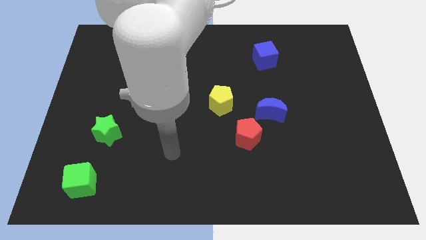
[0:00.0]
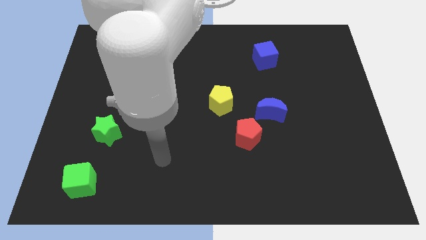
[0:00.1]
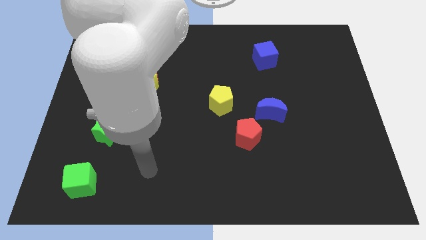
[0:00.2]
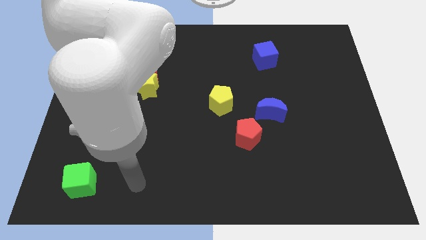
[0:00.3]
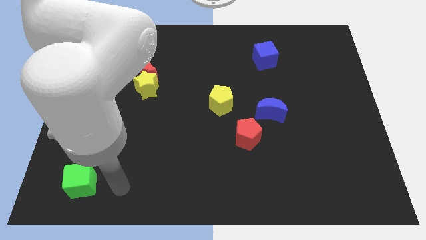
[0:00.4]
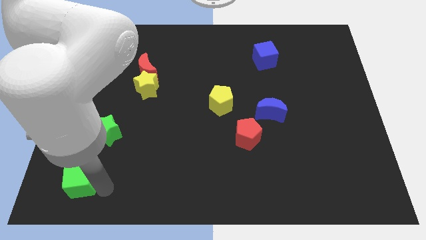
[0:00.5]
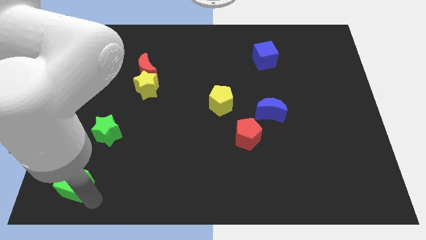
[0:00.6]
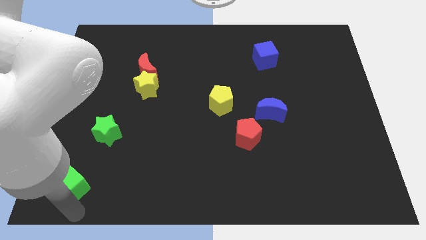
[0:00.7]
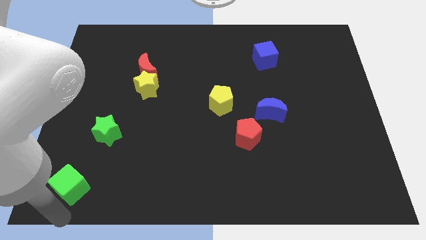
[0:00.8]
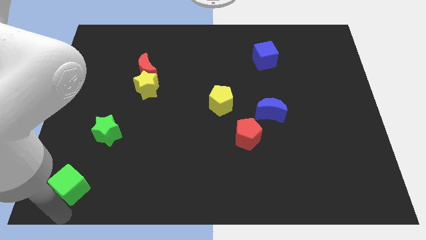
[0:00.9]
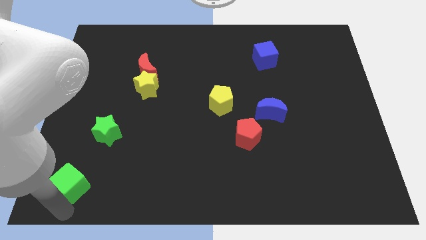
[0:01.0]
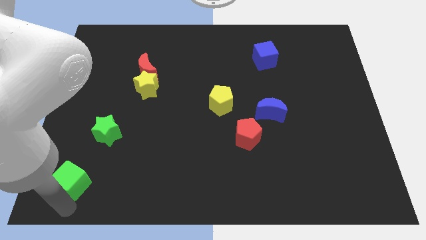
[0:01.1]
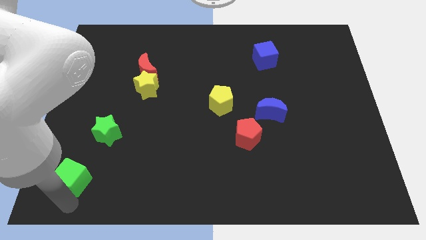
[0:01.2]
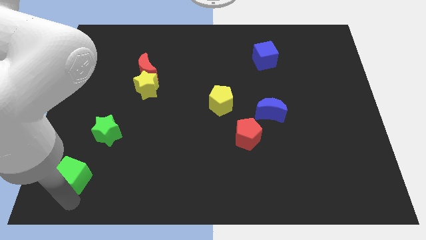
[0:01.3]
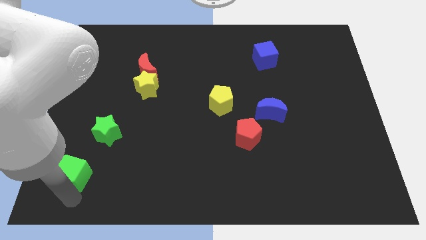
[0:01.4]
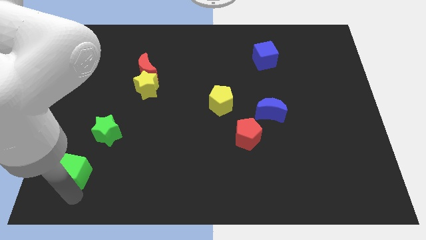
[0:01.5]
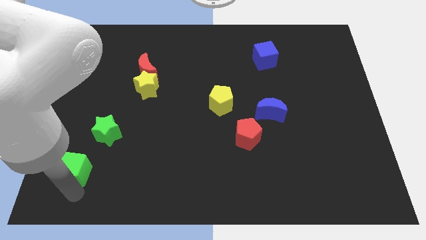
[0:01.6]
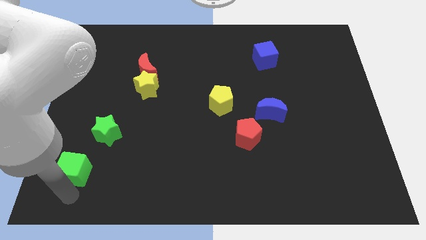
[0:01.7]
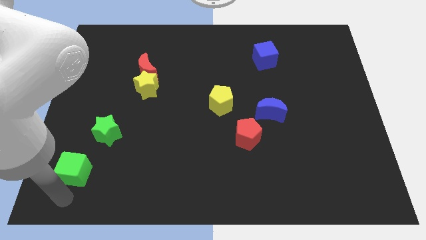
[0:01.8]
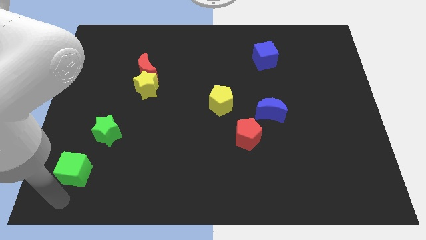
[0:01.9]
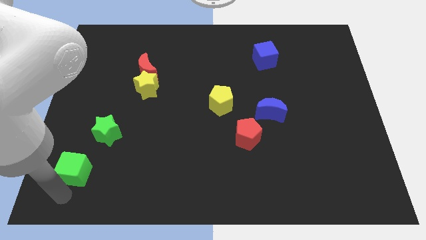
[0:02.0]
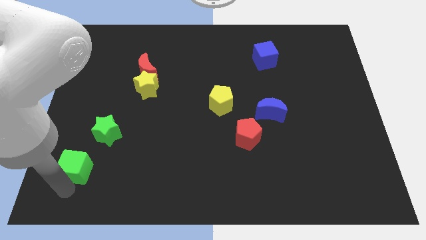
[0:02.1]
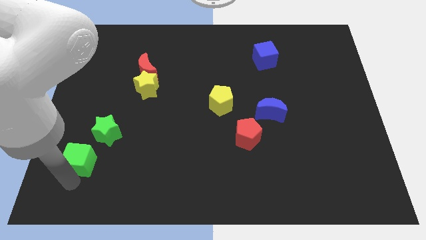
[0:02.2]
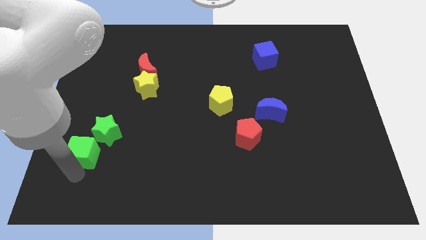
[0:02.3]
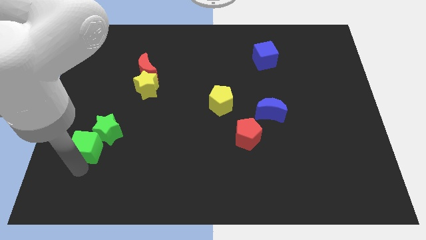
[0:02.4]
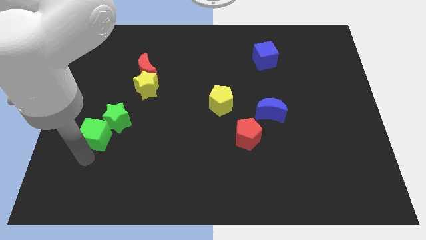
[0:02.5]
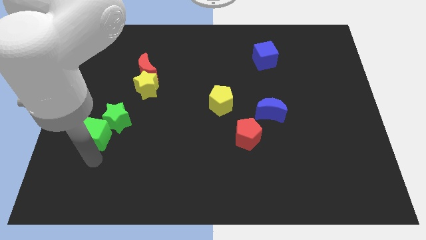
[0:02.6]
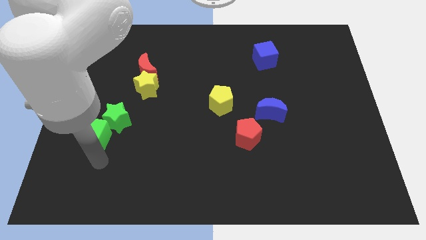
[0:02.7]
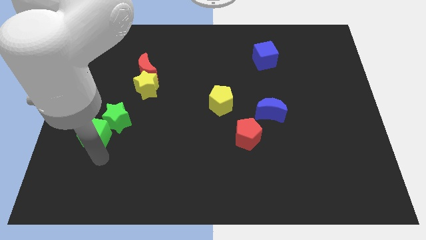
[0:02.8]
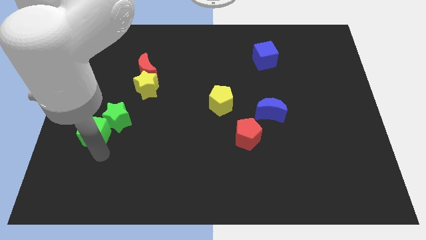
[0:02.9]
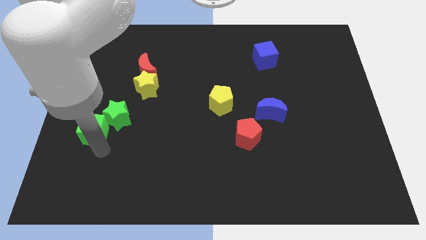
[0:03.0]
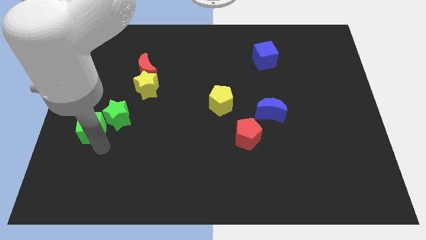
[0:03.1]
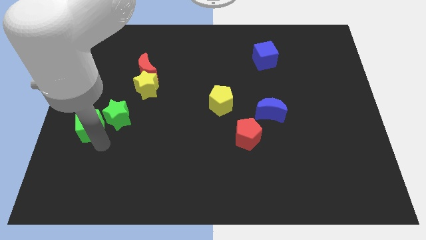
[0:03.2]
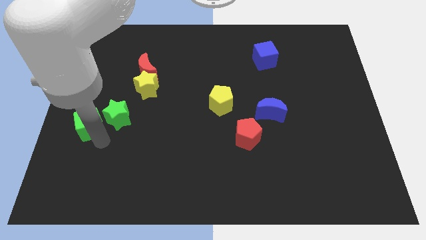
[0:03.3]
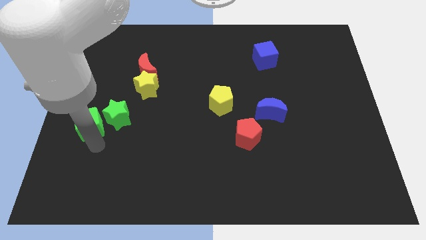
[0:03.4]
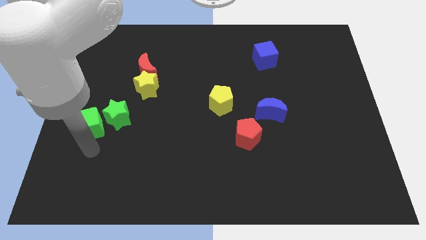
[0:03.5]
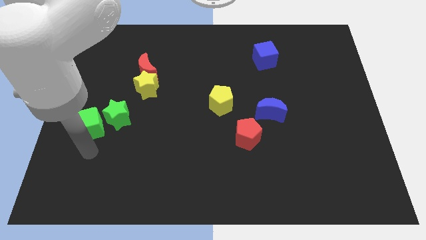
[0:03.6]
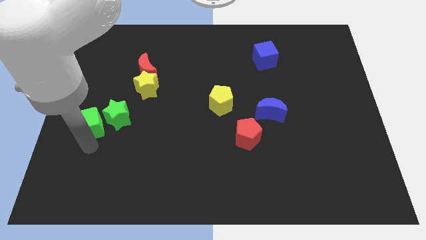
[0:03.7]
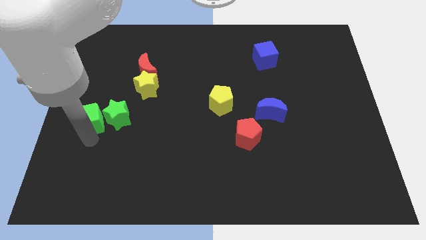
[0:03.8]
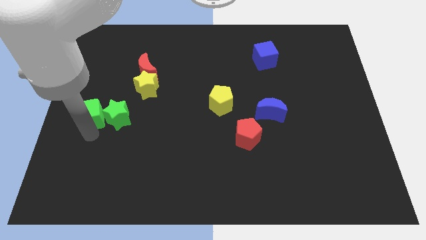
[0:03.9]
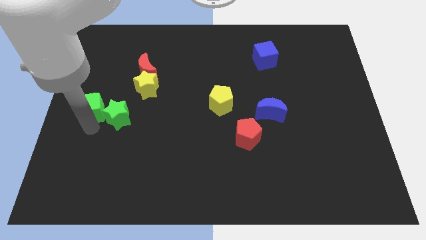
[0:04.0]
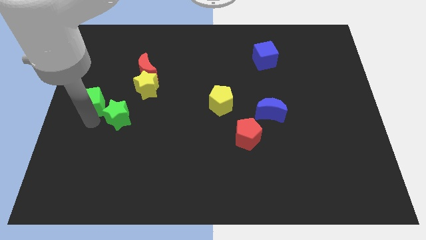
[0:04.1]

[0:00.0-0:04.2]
move the green cube upwards

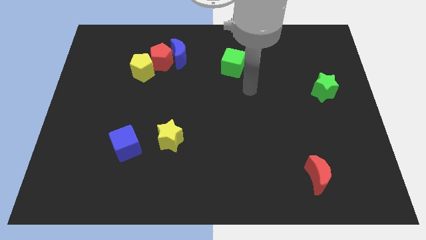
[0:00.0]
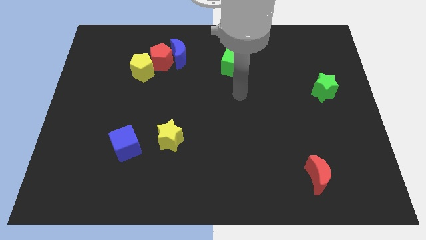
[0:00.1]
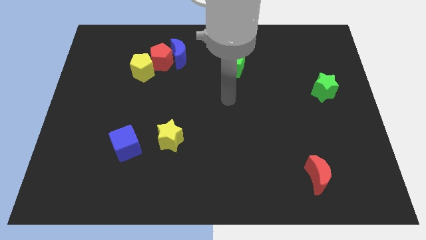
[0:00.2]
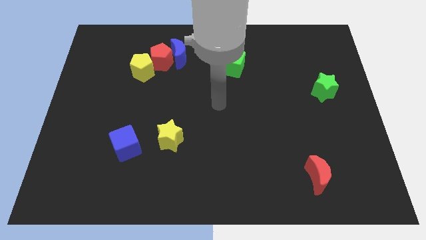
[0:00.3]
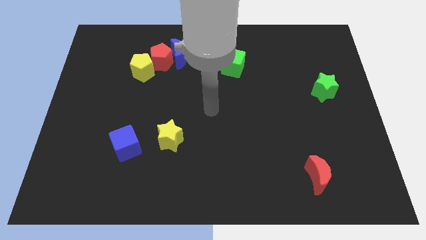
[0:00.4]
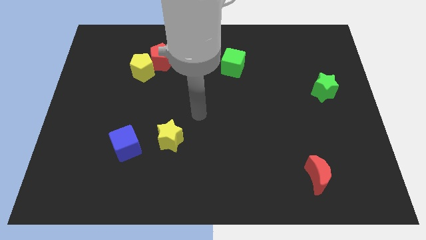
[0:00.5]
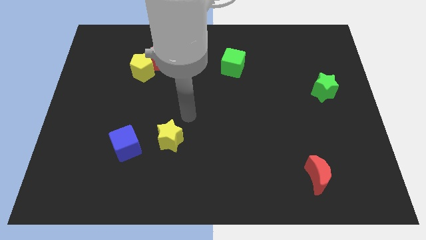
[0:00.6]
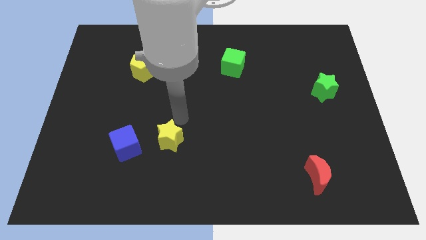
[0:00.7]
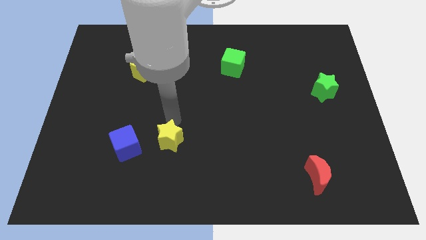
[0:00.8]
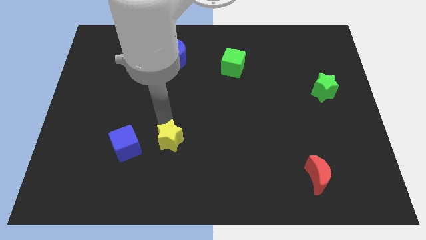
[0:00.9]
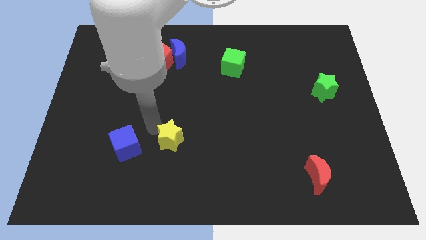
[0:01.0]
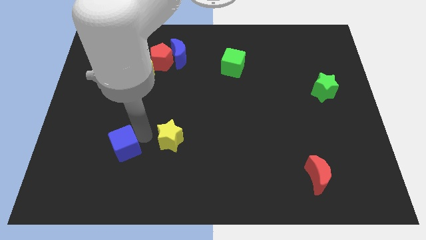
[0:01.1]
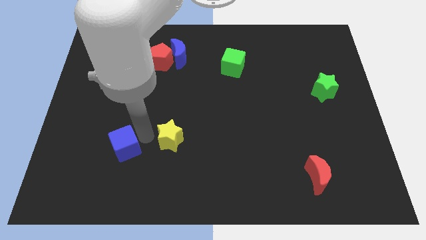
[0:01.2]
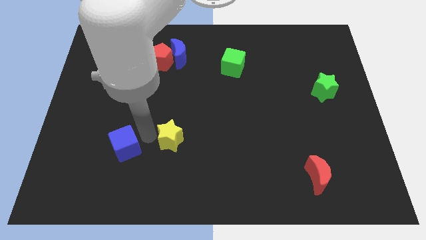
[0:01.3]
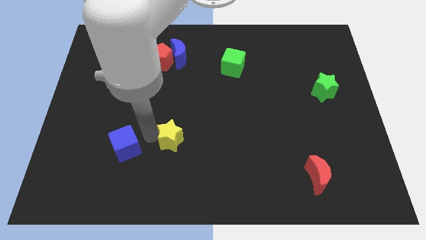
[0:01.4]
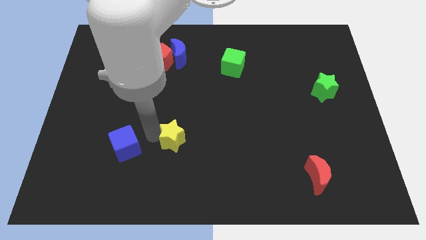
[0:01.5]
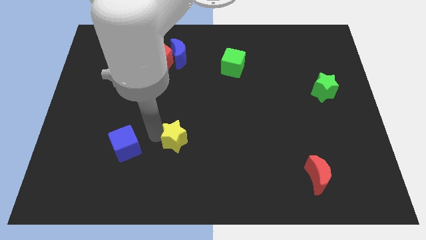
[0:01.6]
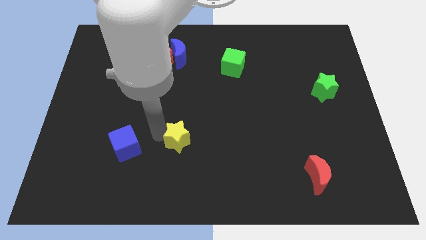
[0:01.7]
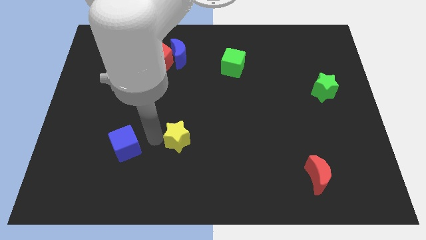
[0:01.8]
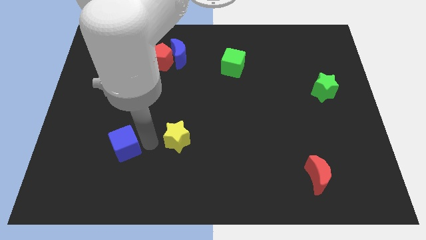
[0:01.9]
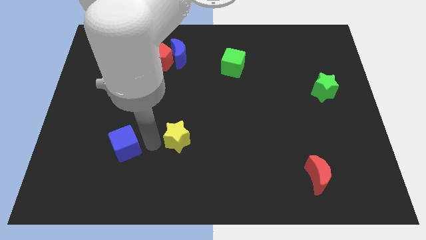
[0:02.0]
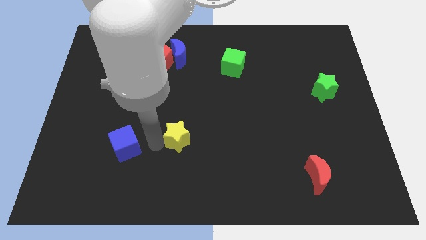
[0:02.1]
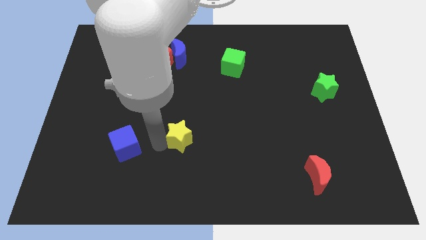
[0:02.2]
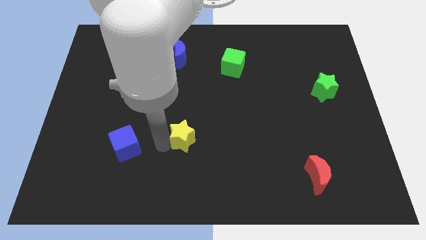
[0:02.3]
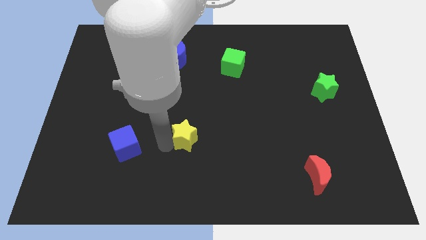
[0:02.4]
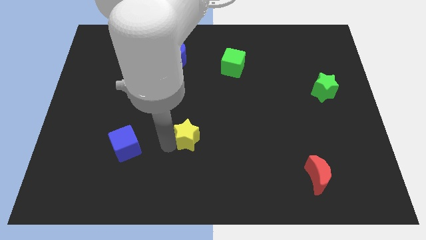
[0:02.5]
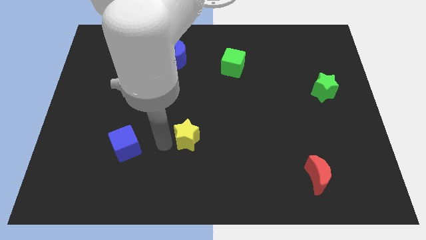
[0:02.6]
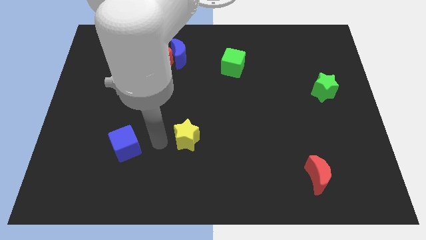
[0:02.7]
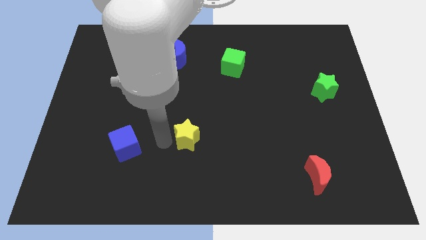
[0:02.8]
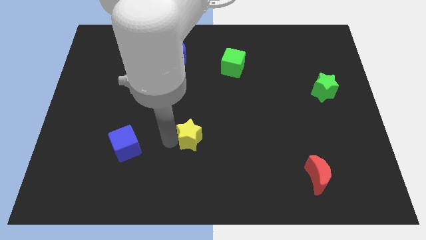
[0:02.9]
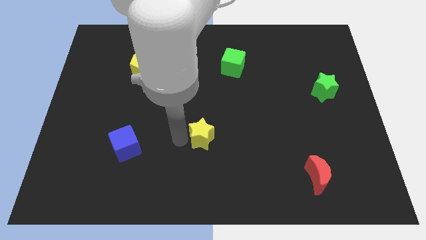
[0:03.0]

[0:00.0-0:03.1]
move the yellow star slightly right

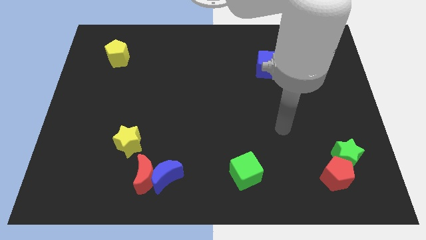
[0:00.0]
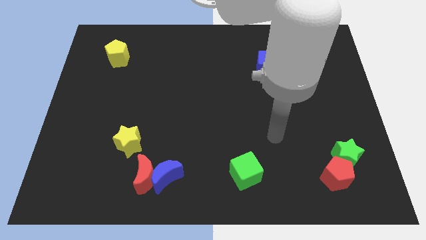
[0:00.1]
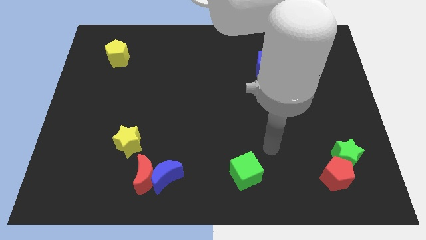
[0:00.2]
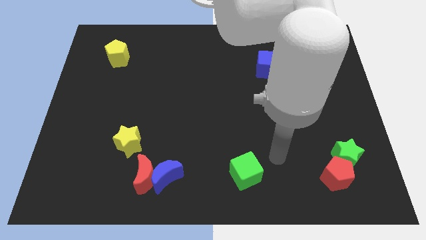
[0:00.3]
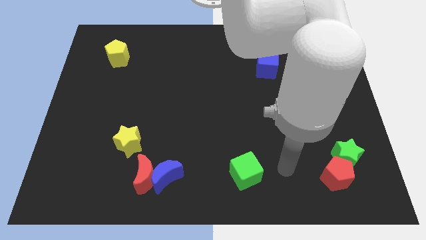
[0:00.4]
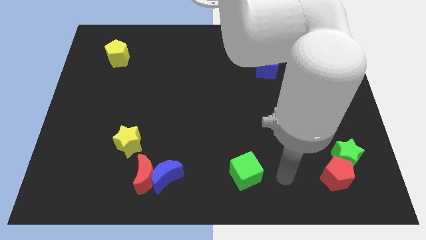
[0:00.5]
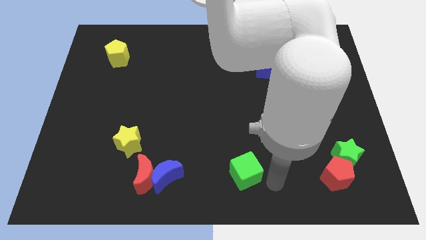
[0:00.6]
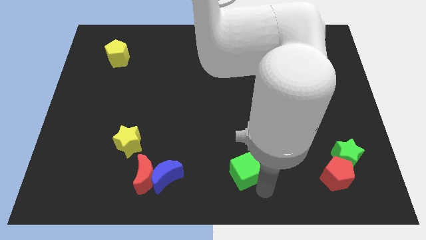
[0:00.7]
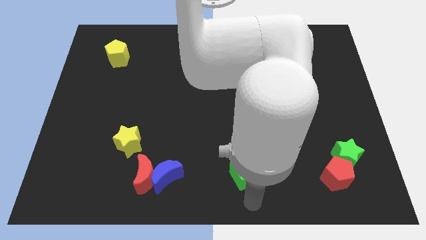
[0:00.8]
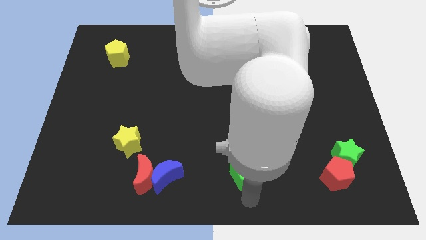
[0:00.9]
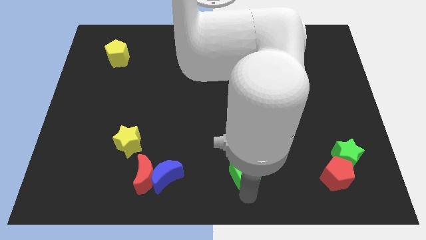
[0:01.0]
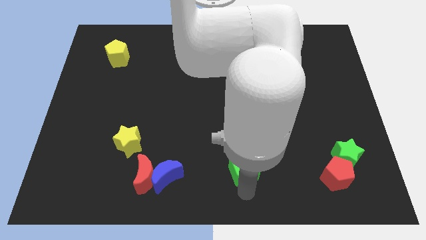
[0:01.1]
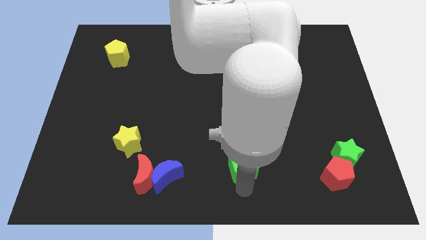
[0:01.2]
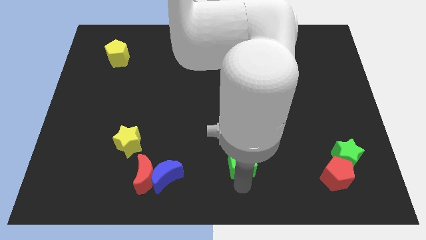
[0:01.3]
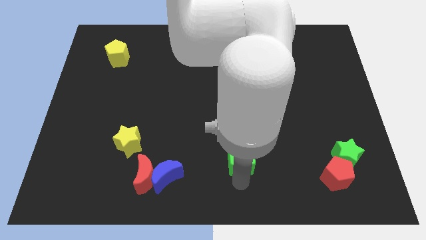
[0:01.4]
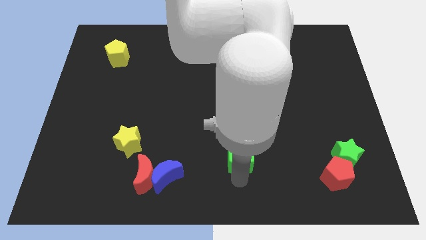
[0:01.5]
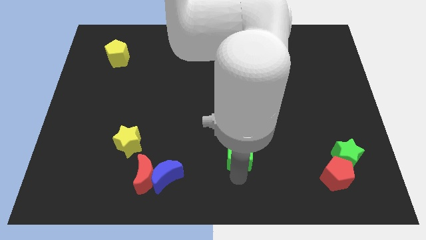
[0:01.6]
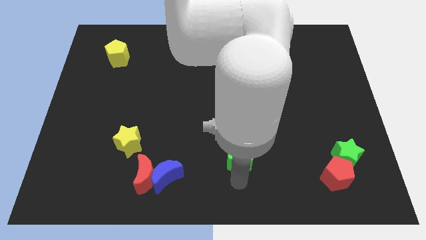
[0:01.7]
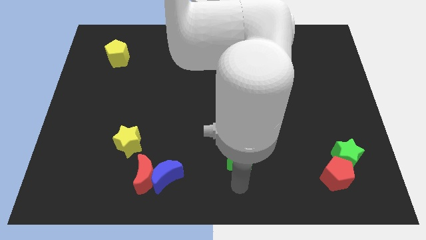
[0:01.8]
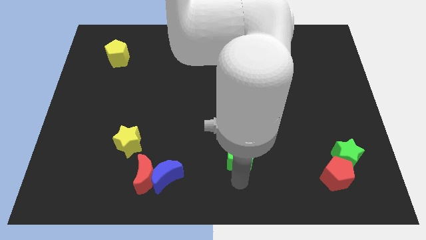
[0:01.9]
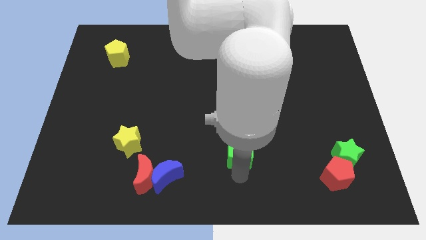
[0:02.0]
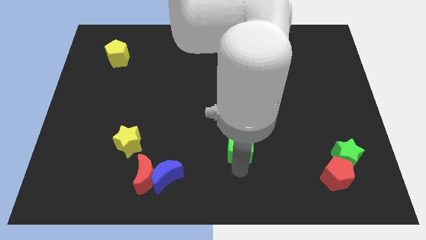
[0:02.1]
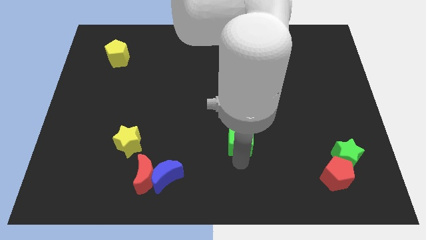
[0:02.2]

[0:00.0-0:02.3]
push the green cube a little up
